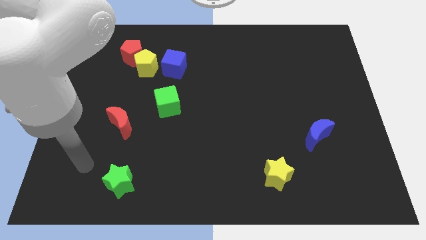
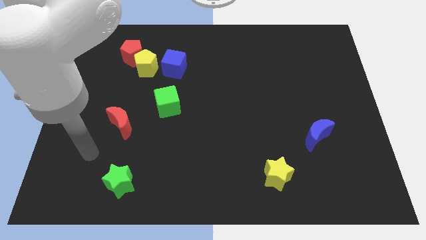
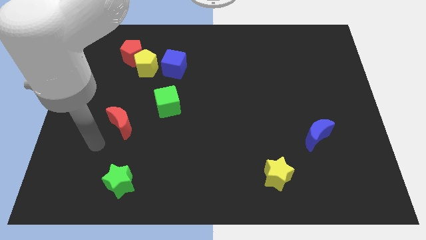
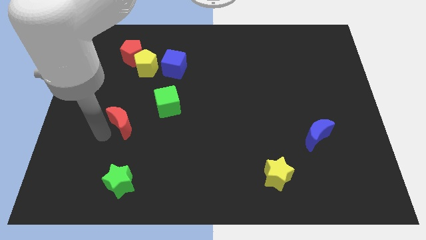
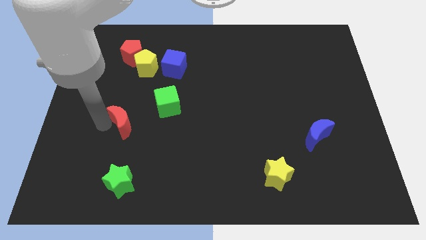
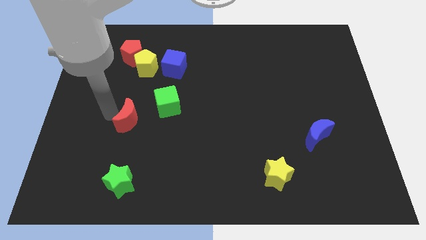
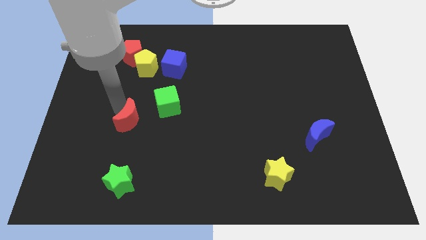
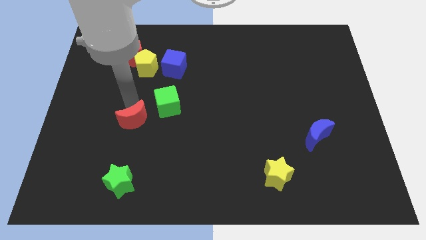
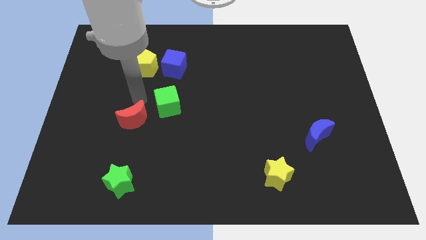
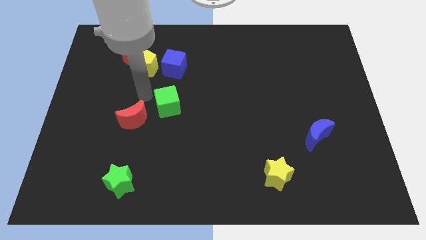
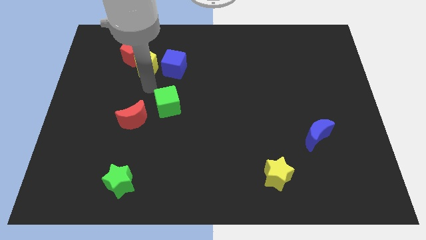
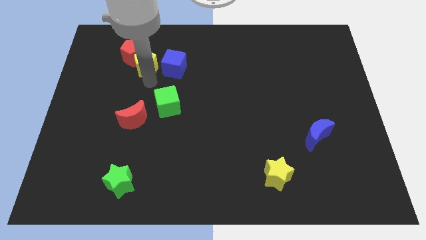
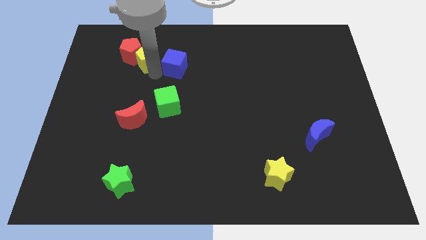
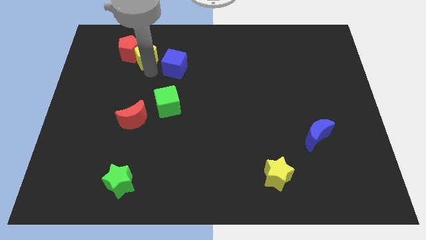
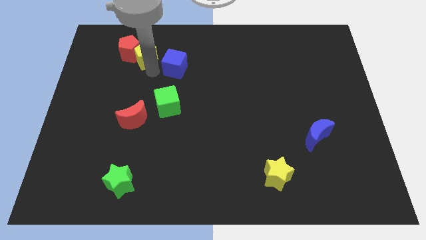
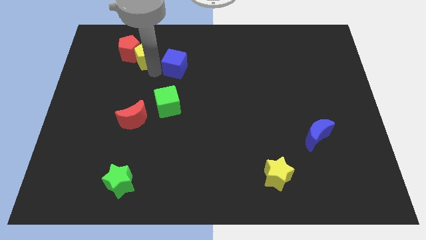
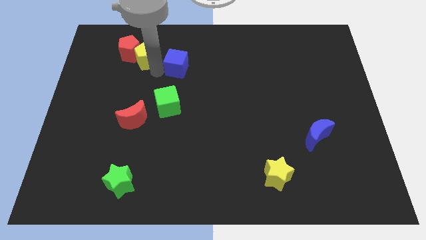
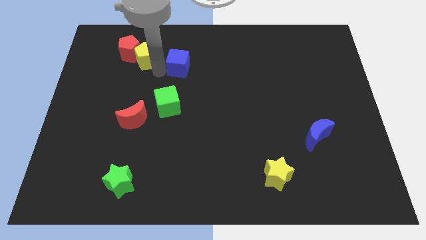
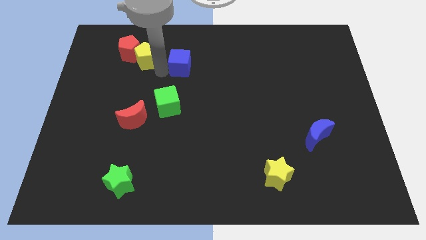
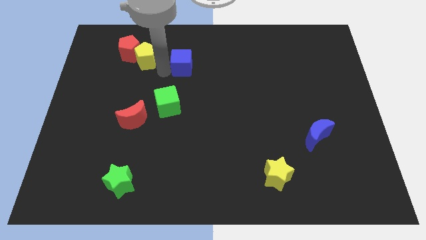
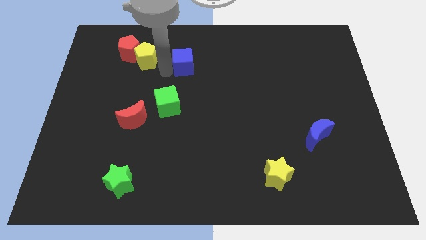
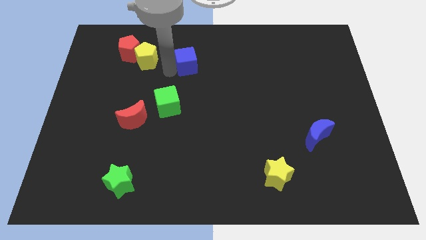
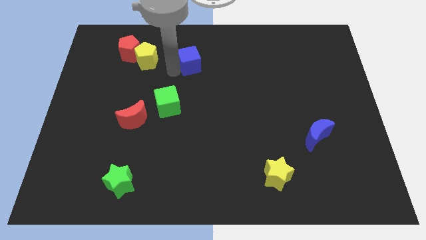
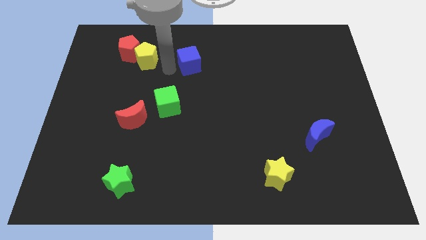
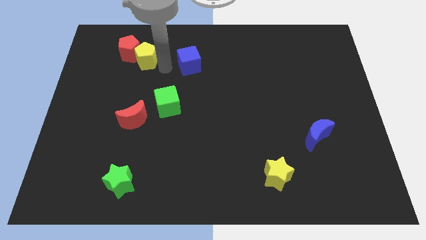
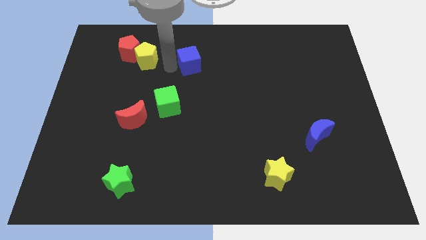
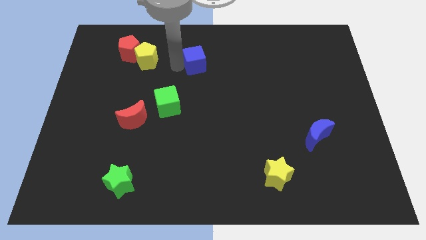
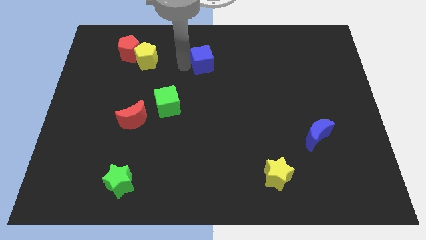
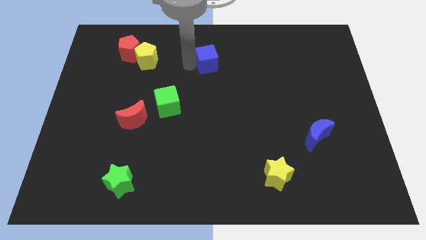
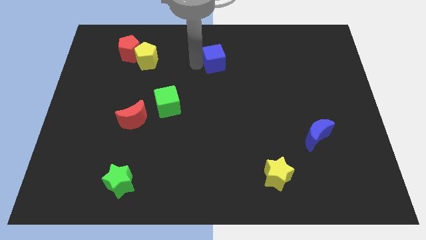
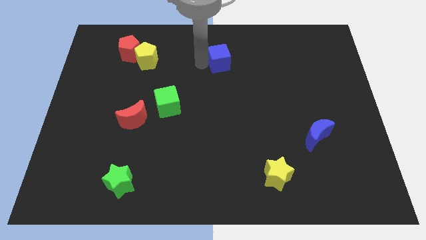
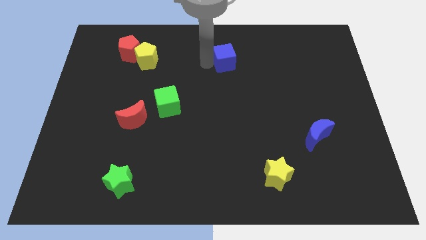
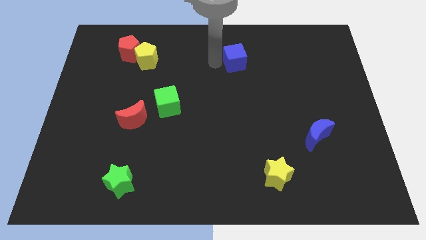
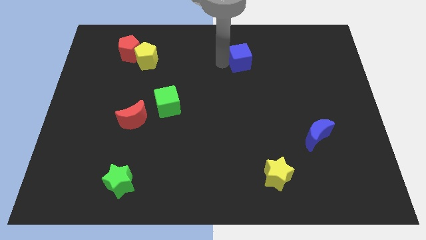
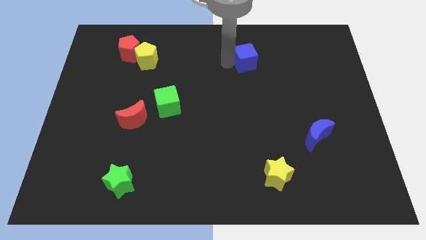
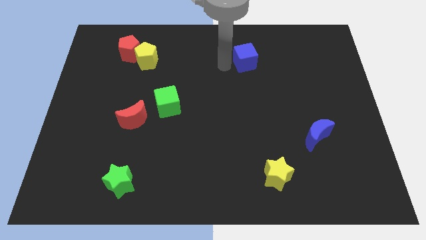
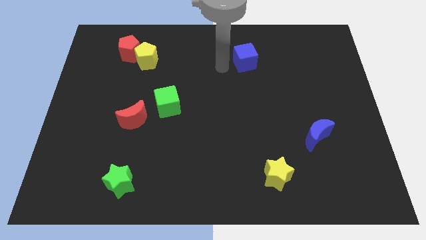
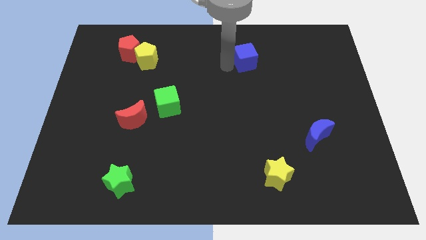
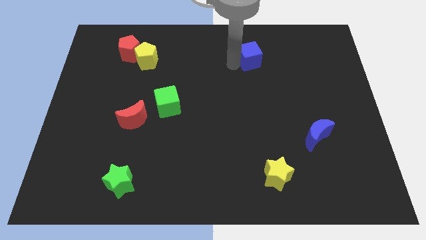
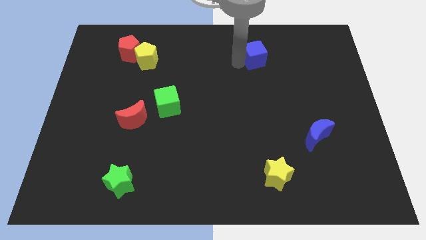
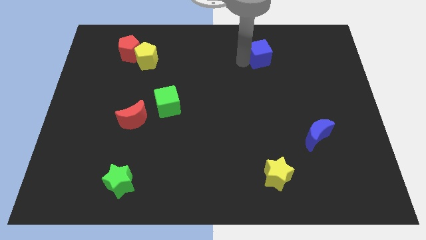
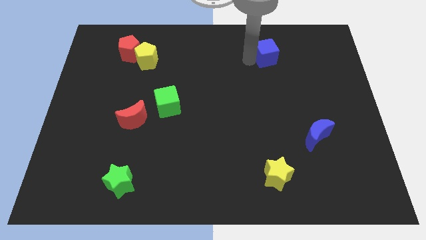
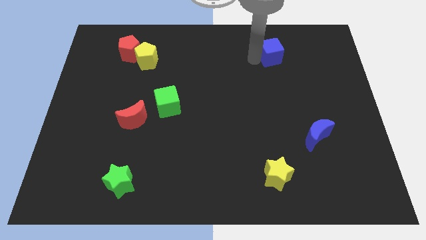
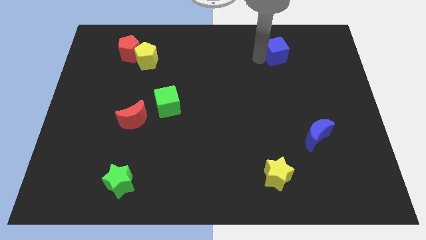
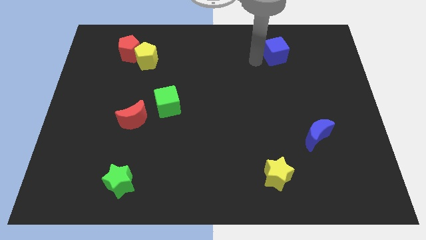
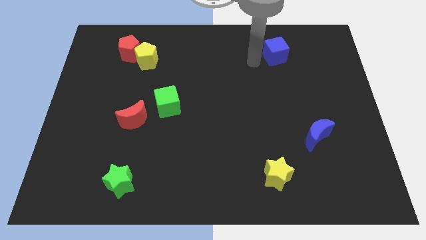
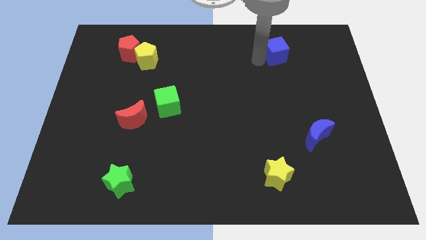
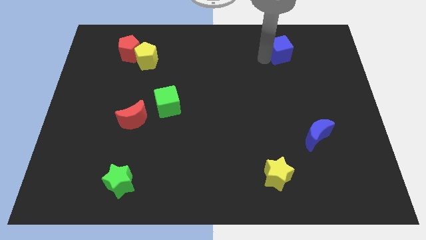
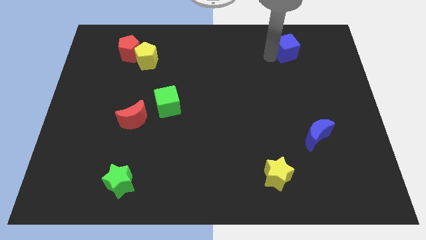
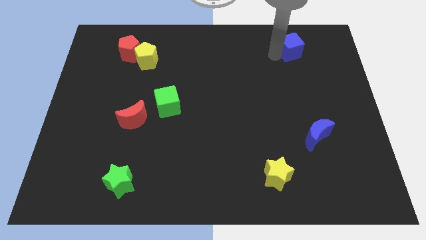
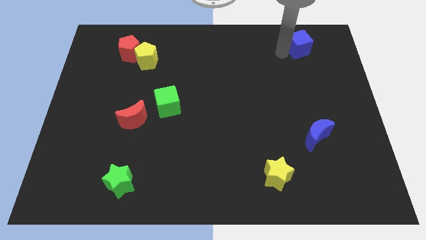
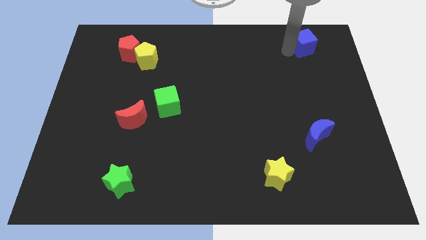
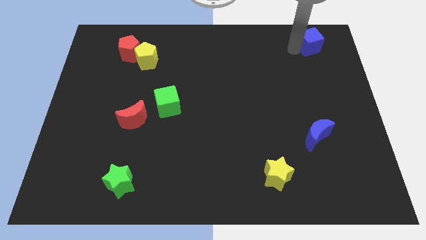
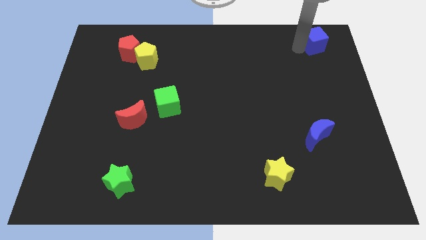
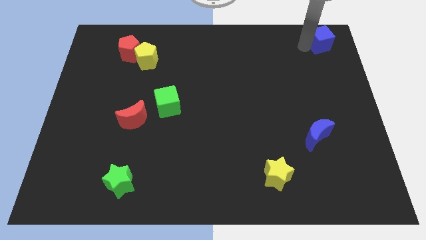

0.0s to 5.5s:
push the blue cube to the top right of the board
